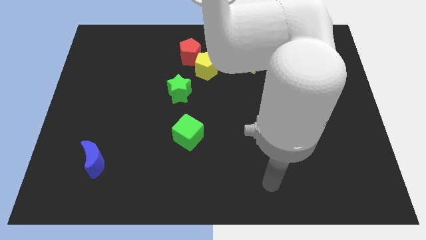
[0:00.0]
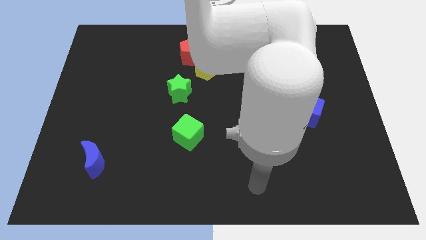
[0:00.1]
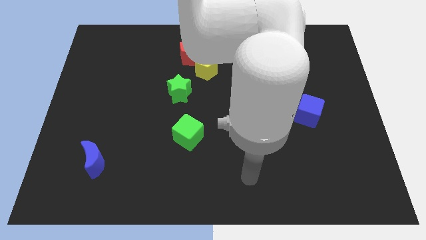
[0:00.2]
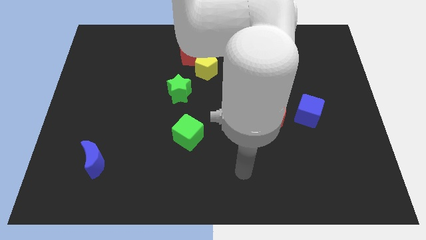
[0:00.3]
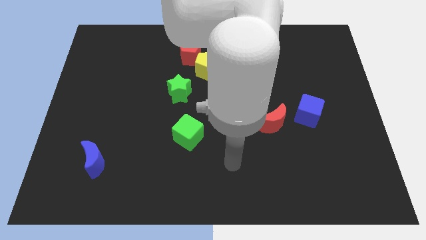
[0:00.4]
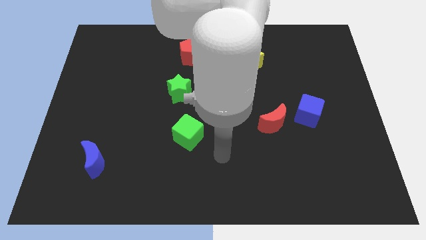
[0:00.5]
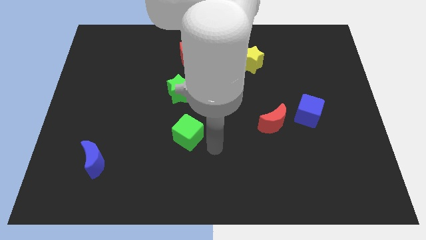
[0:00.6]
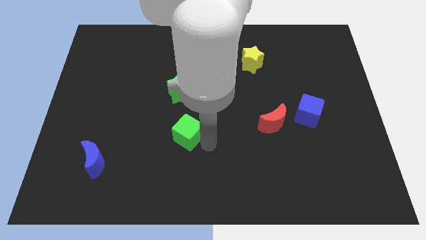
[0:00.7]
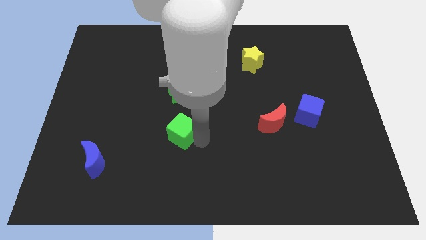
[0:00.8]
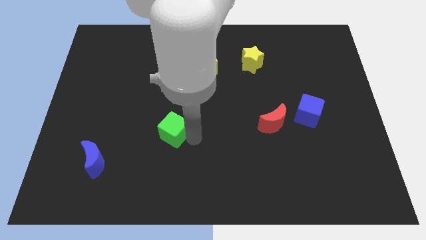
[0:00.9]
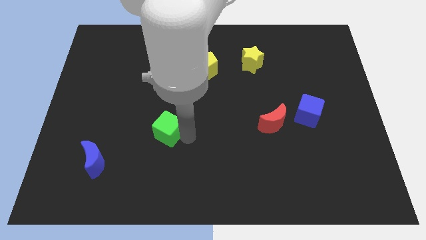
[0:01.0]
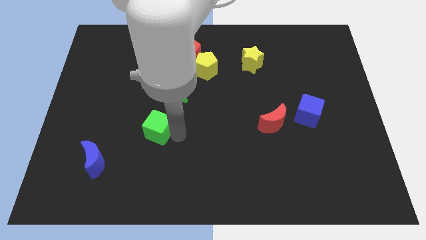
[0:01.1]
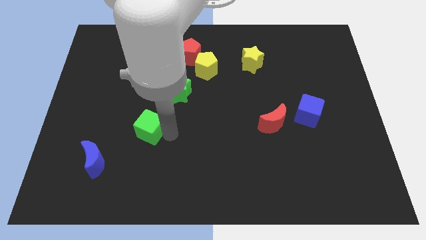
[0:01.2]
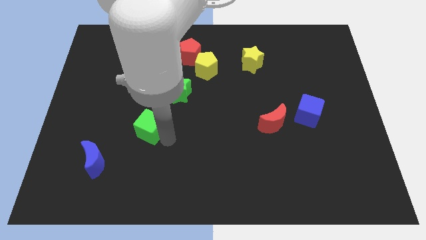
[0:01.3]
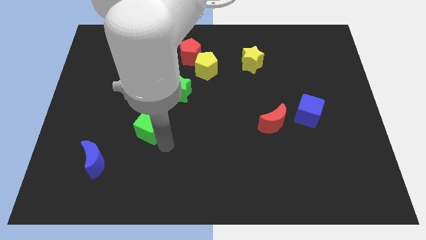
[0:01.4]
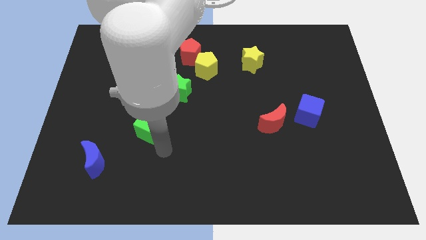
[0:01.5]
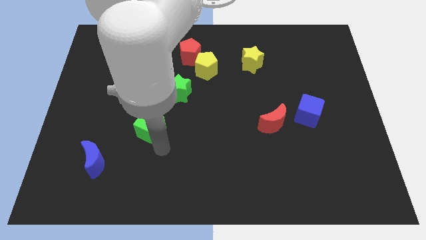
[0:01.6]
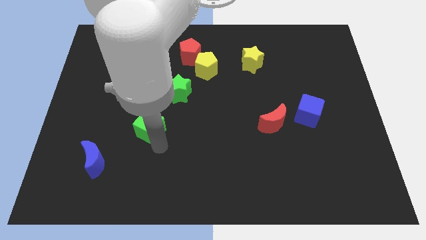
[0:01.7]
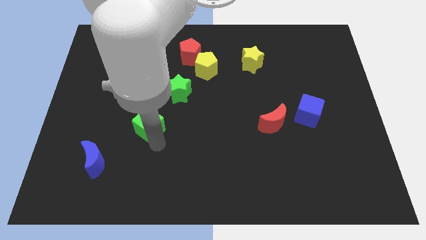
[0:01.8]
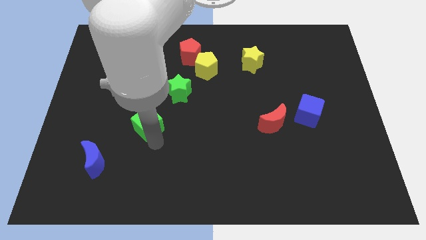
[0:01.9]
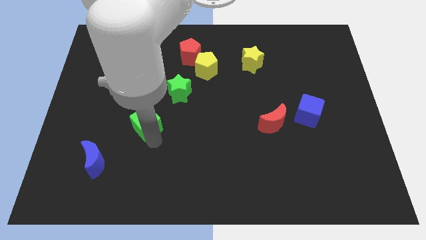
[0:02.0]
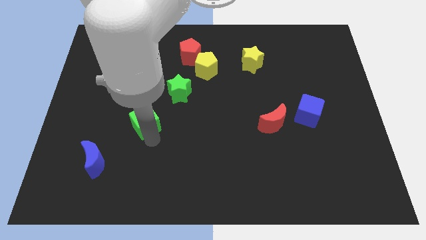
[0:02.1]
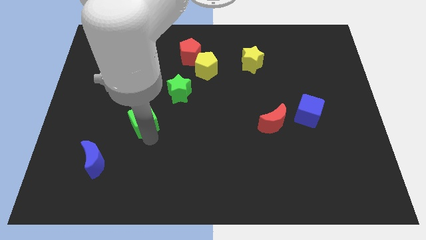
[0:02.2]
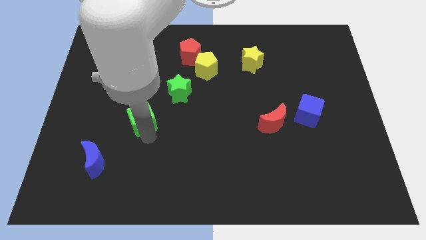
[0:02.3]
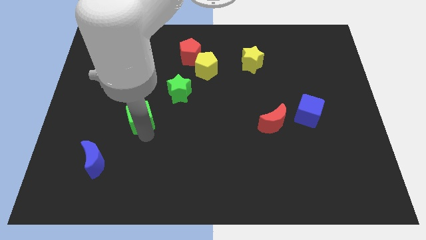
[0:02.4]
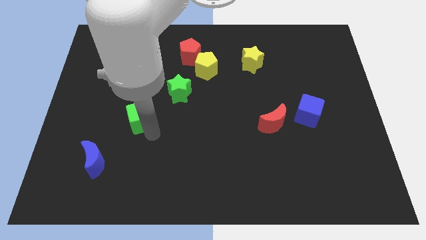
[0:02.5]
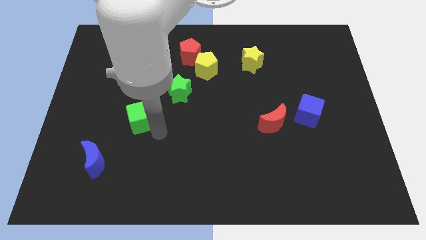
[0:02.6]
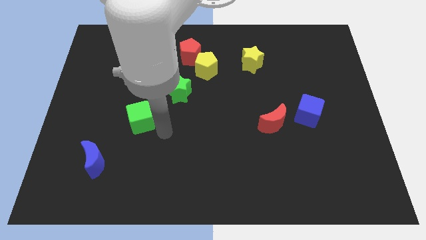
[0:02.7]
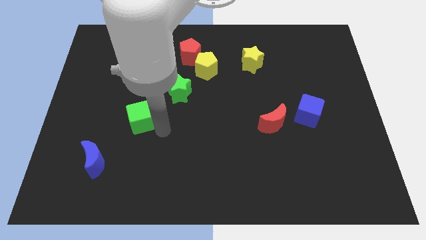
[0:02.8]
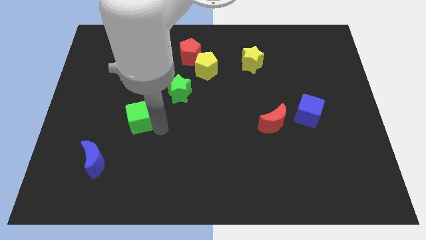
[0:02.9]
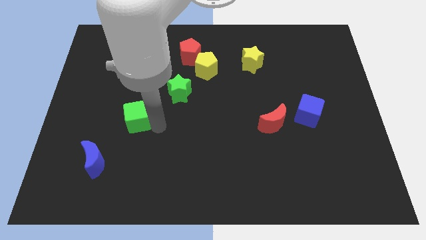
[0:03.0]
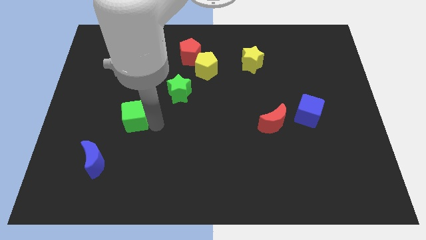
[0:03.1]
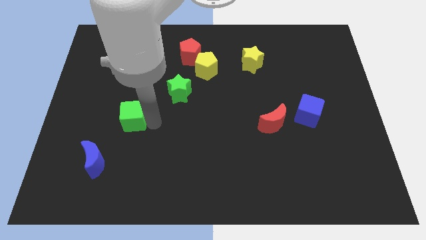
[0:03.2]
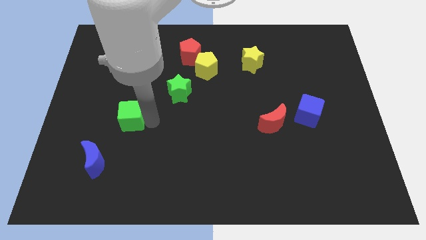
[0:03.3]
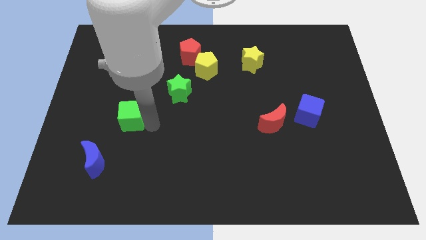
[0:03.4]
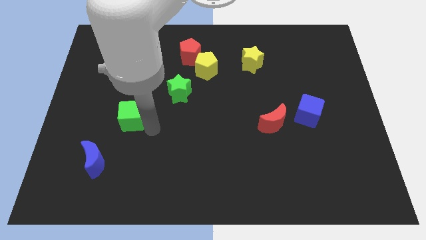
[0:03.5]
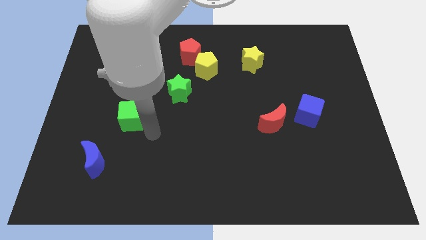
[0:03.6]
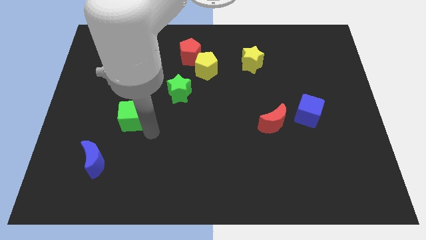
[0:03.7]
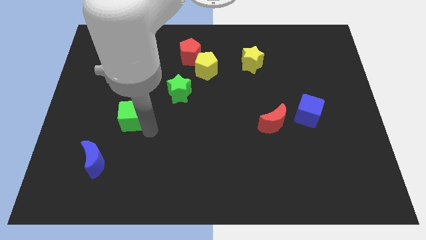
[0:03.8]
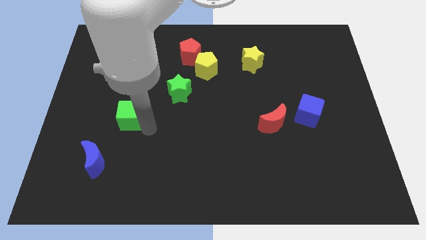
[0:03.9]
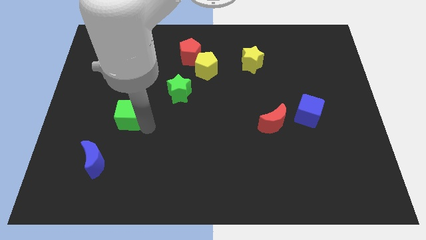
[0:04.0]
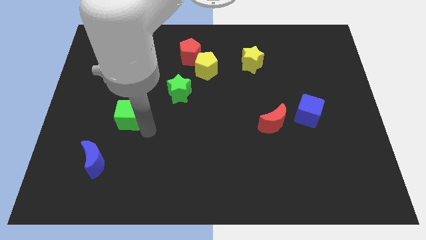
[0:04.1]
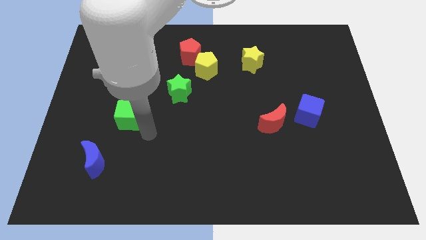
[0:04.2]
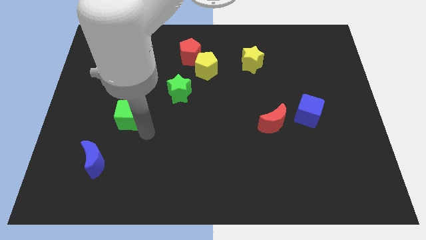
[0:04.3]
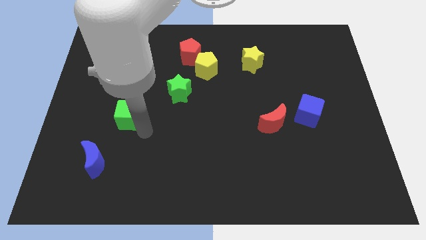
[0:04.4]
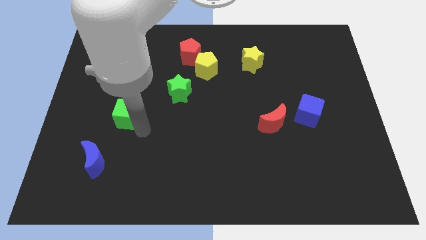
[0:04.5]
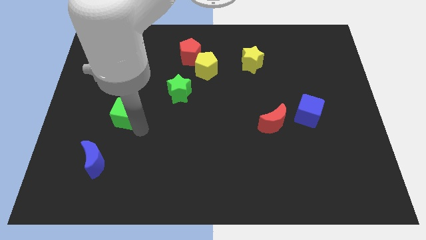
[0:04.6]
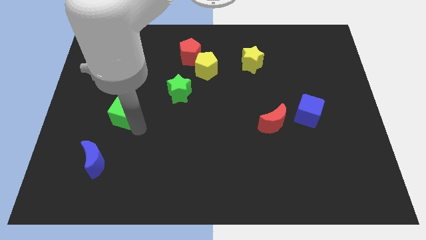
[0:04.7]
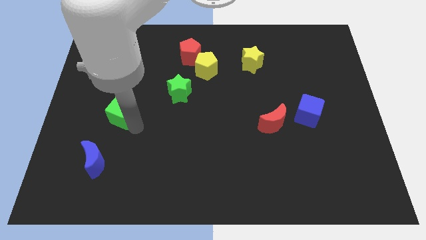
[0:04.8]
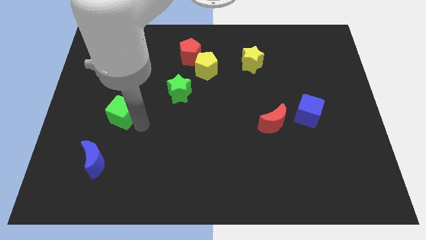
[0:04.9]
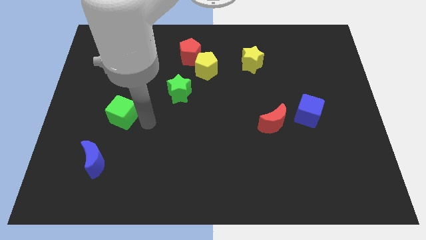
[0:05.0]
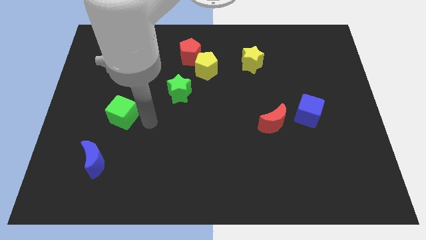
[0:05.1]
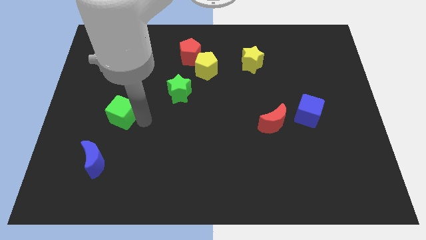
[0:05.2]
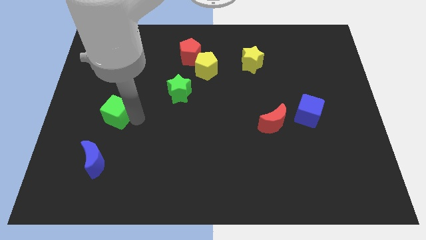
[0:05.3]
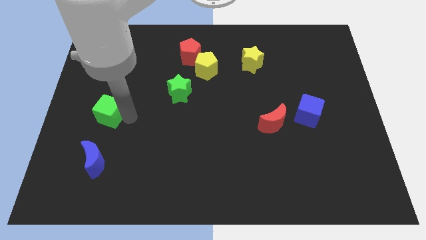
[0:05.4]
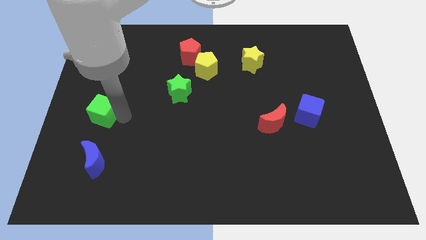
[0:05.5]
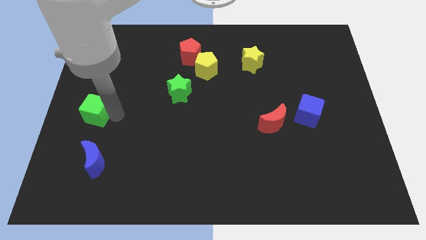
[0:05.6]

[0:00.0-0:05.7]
slide the green cube to the left side
